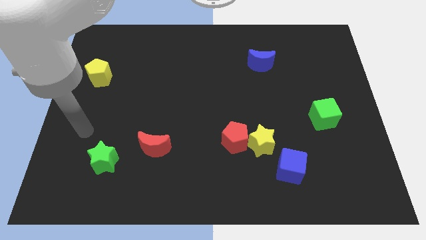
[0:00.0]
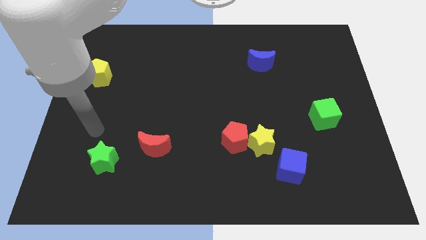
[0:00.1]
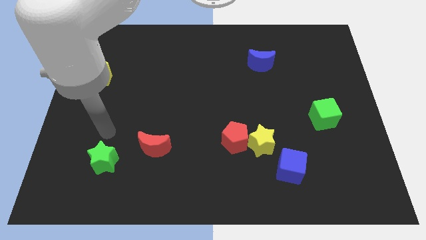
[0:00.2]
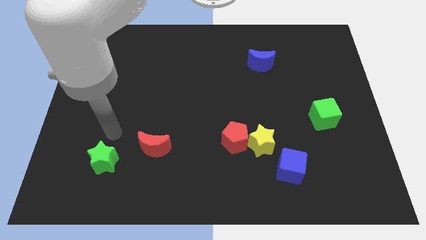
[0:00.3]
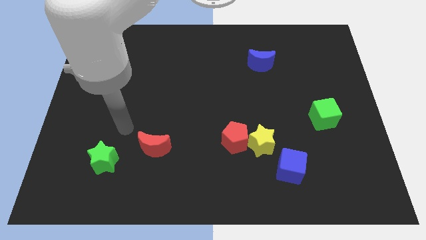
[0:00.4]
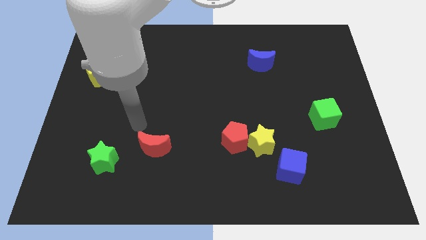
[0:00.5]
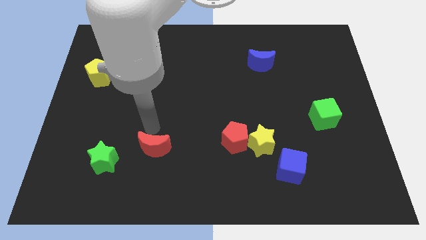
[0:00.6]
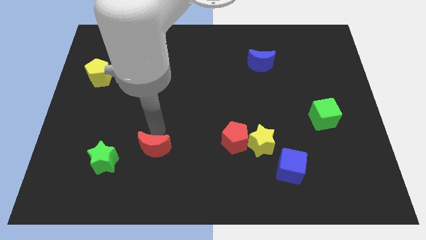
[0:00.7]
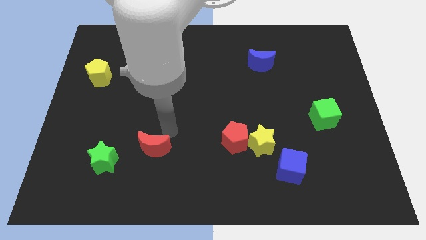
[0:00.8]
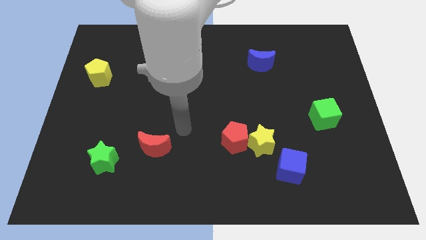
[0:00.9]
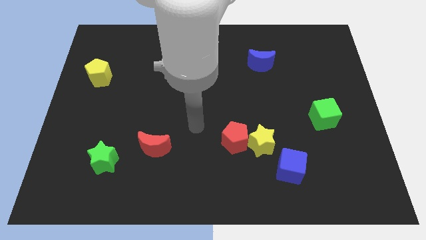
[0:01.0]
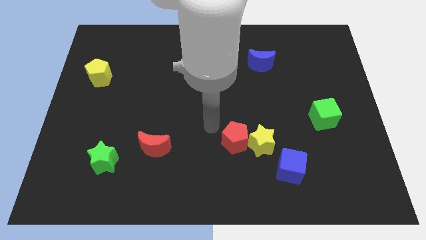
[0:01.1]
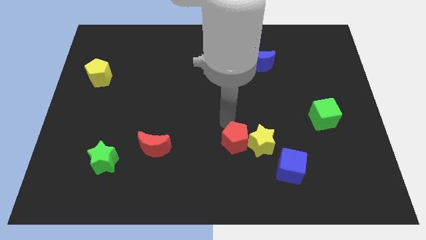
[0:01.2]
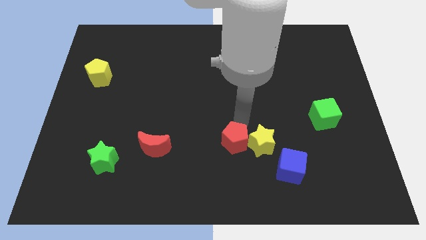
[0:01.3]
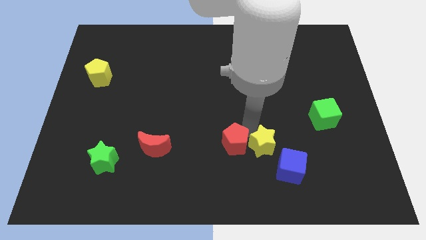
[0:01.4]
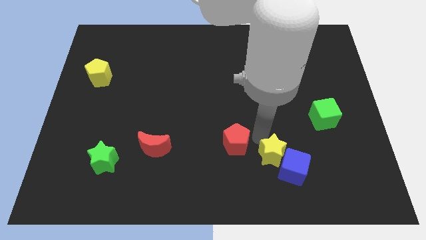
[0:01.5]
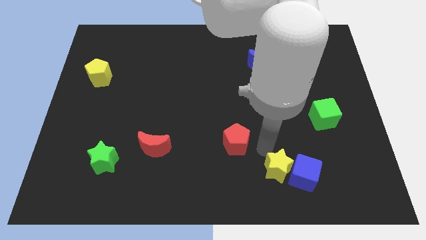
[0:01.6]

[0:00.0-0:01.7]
move the red pentagon away from the yellow star

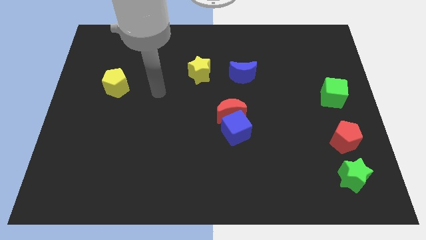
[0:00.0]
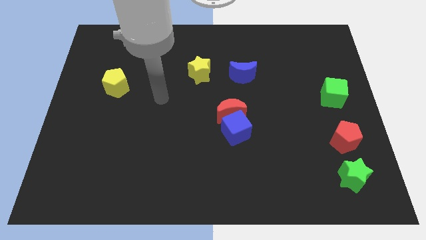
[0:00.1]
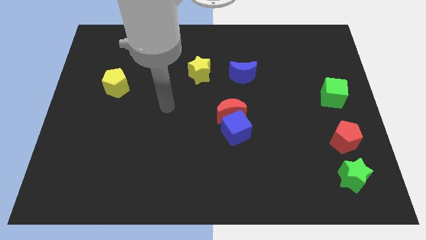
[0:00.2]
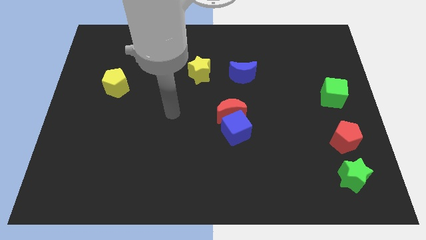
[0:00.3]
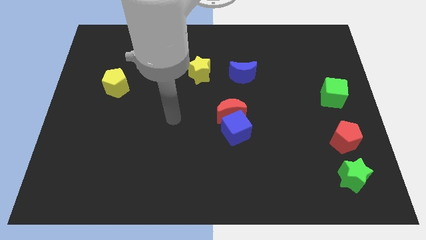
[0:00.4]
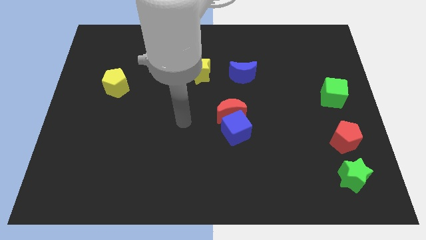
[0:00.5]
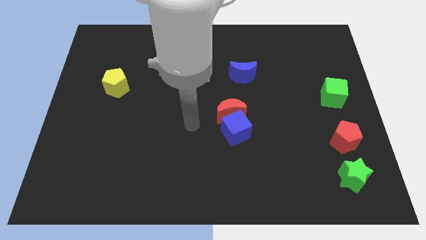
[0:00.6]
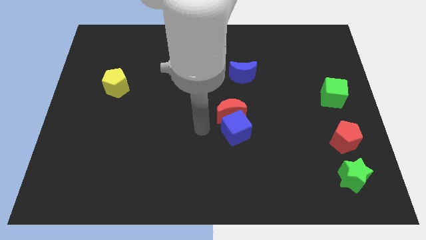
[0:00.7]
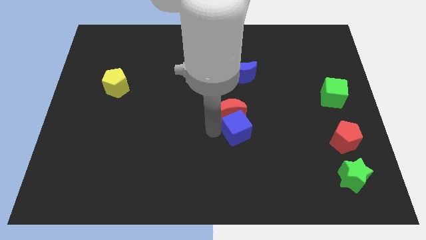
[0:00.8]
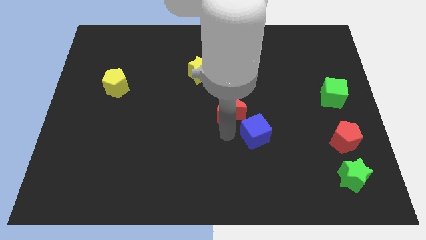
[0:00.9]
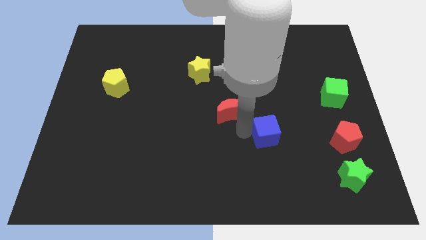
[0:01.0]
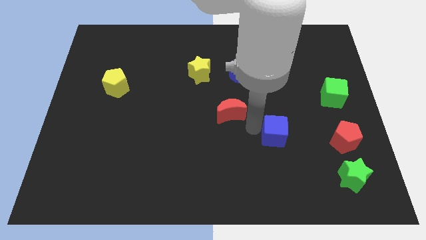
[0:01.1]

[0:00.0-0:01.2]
move the red moon away from the blue cube

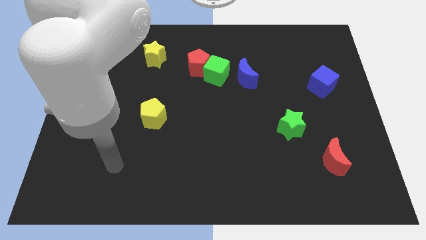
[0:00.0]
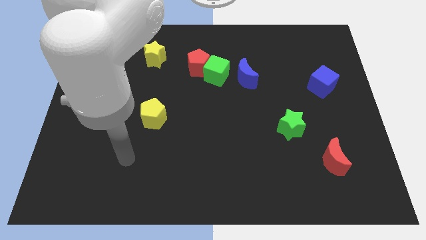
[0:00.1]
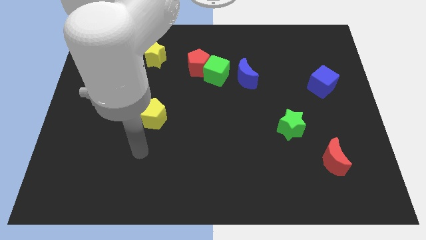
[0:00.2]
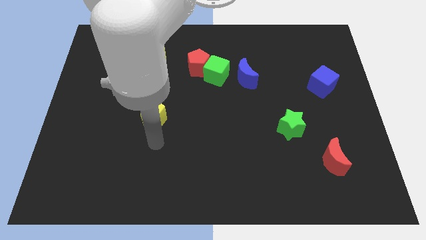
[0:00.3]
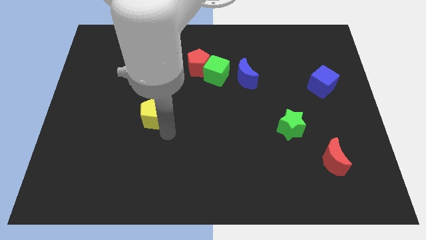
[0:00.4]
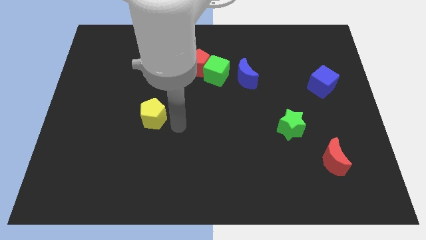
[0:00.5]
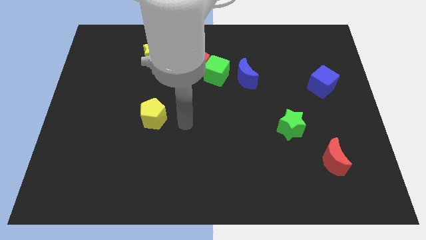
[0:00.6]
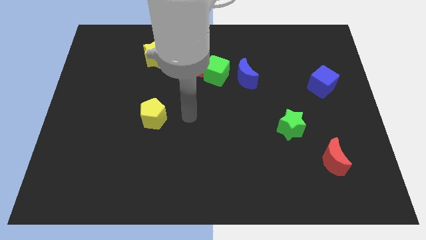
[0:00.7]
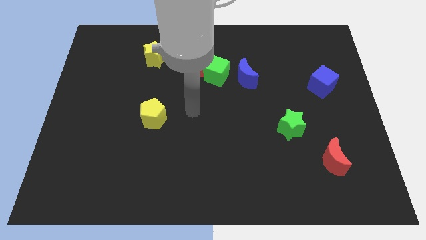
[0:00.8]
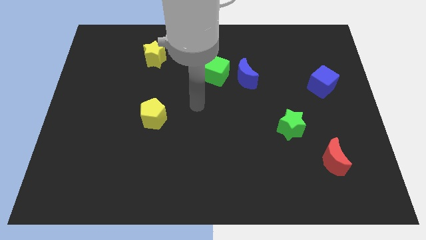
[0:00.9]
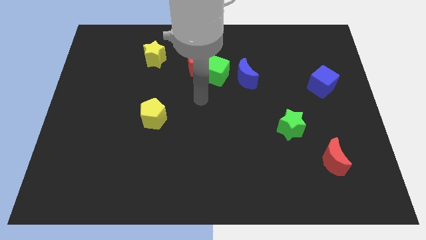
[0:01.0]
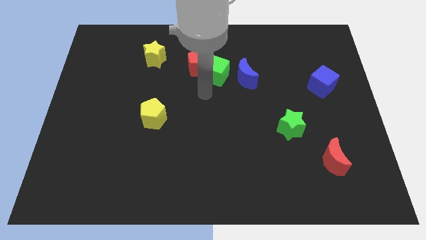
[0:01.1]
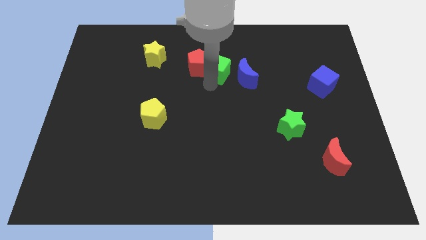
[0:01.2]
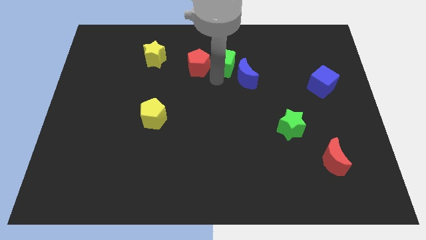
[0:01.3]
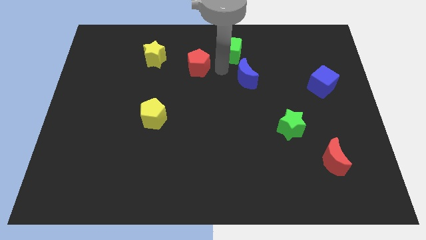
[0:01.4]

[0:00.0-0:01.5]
move the red pentagon away from the green cube

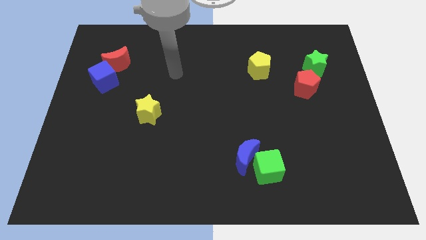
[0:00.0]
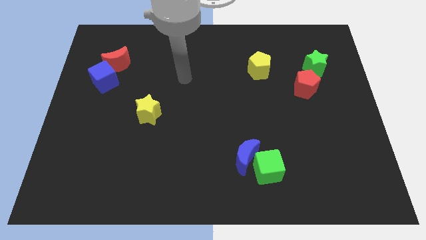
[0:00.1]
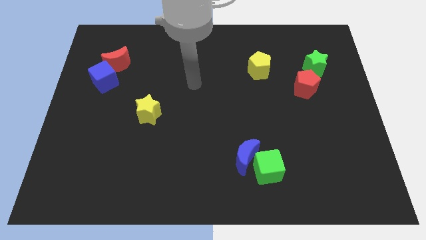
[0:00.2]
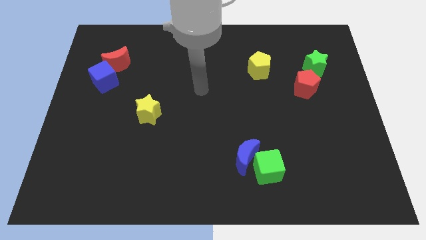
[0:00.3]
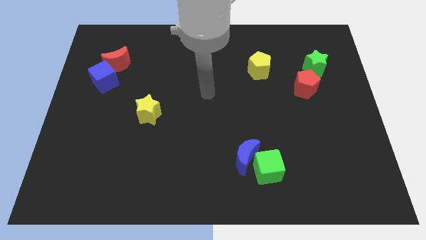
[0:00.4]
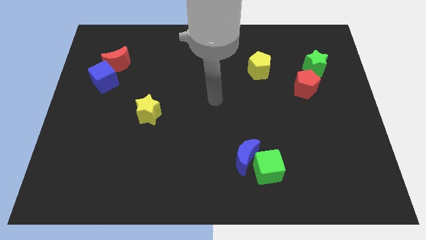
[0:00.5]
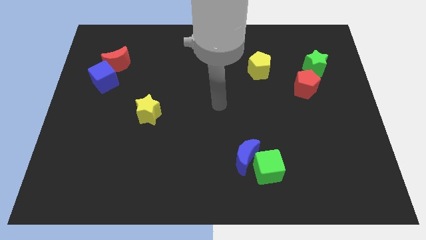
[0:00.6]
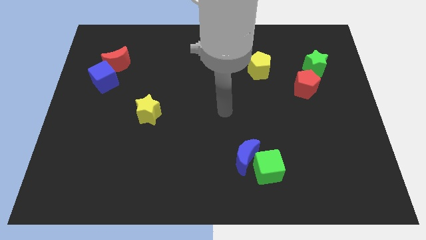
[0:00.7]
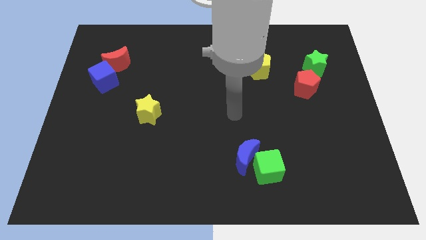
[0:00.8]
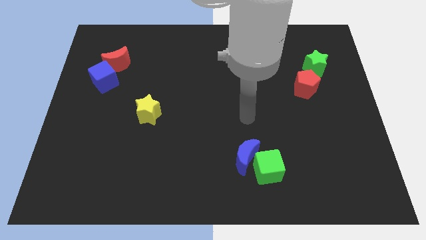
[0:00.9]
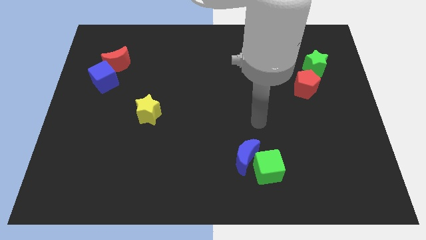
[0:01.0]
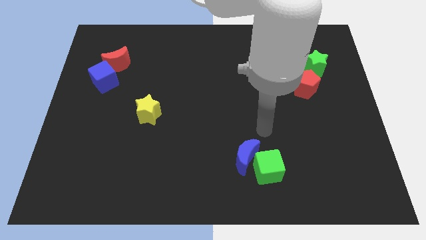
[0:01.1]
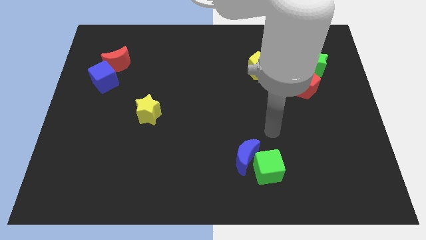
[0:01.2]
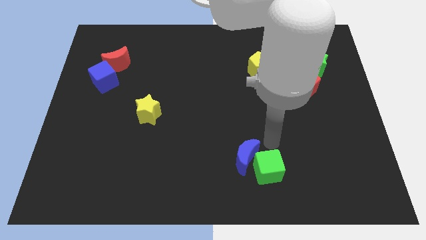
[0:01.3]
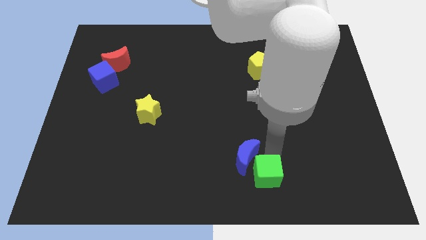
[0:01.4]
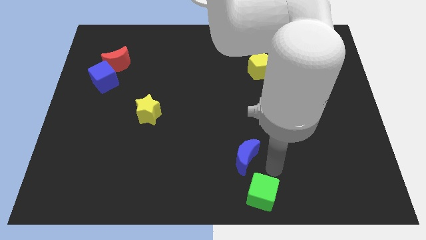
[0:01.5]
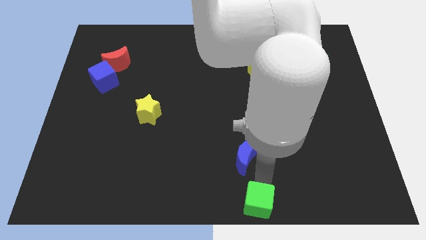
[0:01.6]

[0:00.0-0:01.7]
move the blue moon away from the green cube

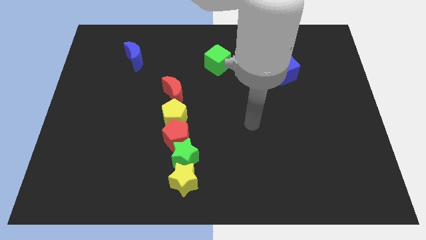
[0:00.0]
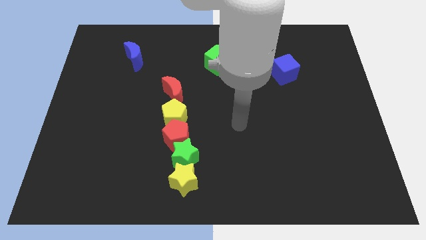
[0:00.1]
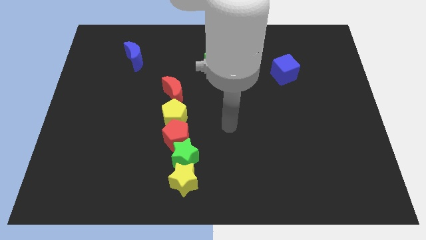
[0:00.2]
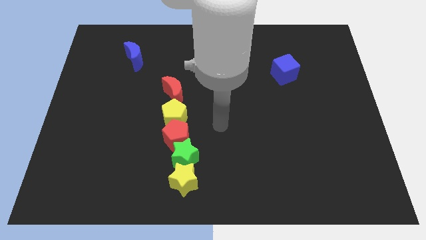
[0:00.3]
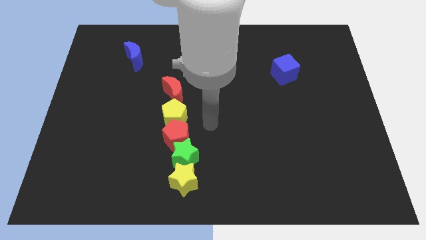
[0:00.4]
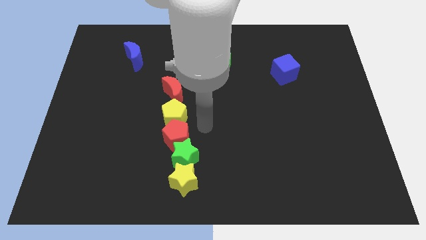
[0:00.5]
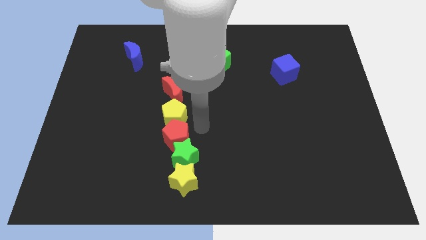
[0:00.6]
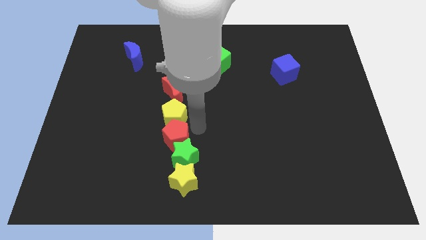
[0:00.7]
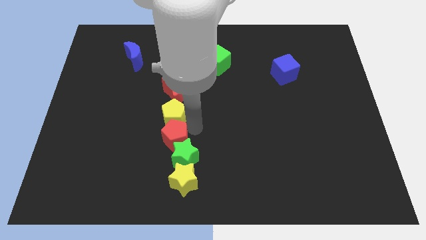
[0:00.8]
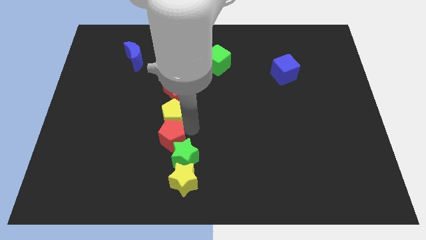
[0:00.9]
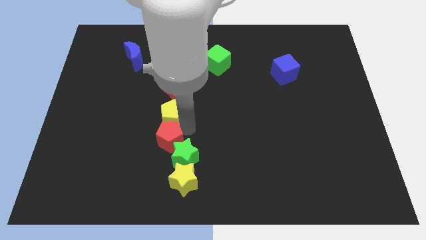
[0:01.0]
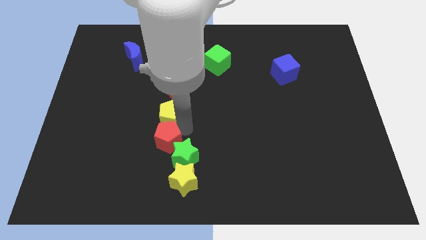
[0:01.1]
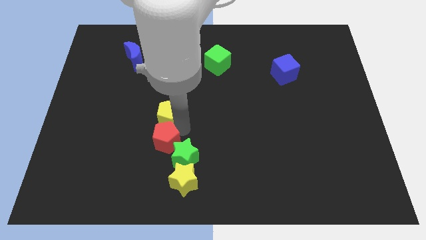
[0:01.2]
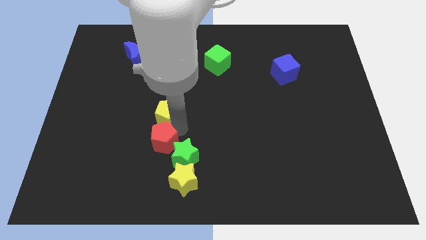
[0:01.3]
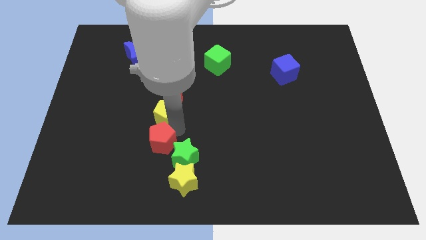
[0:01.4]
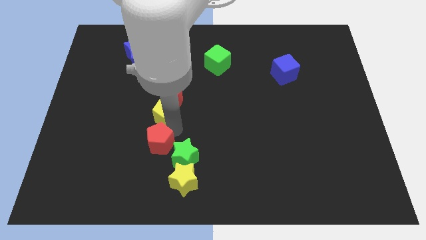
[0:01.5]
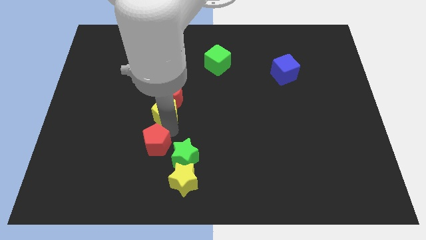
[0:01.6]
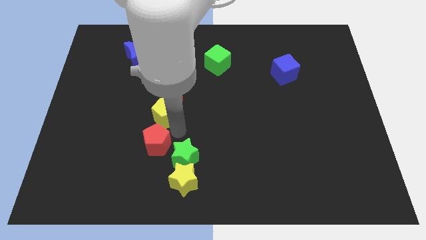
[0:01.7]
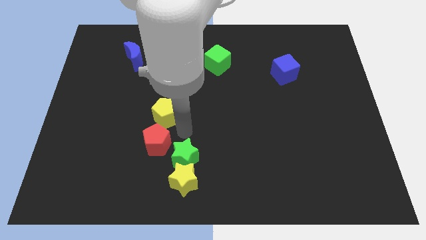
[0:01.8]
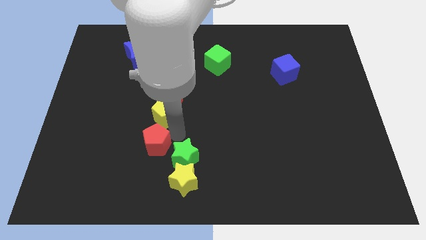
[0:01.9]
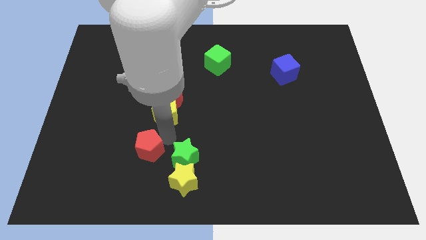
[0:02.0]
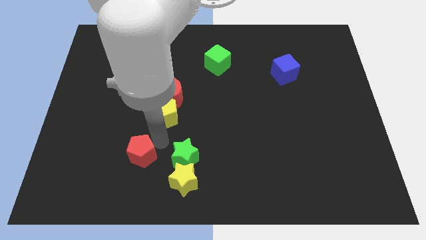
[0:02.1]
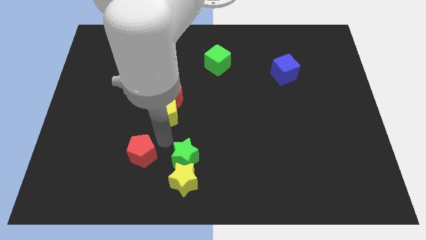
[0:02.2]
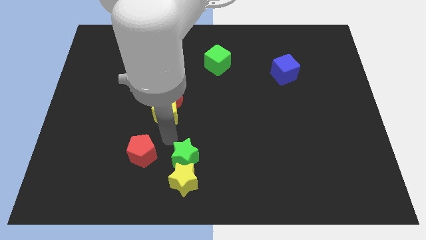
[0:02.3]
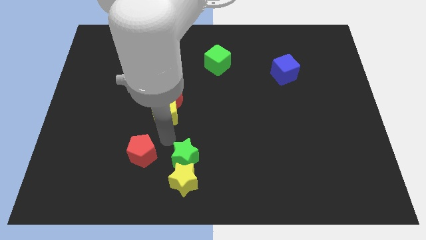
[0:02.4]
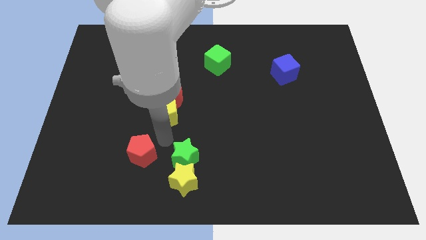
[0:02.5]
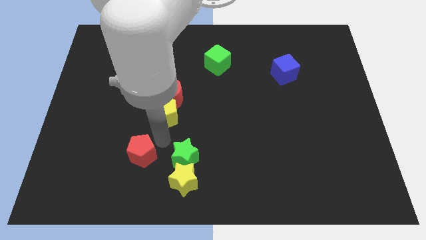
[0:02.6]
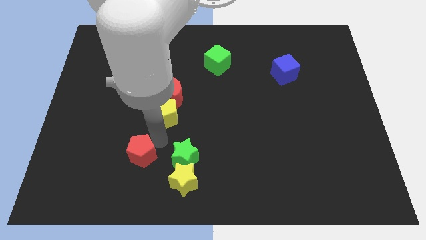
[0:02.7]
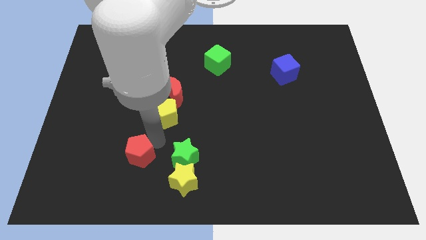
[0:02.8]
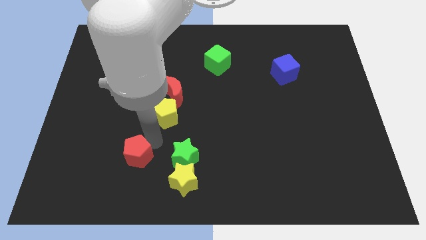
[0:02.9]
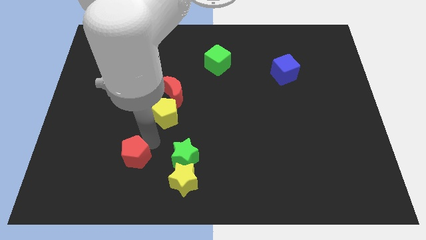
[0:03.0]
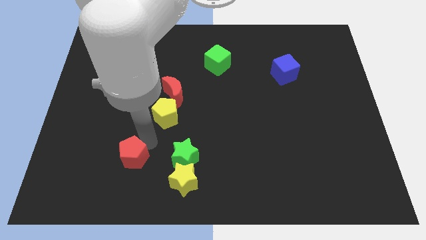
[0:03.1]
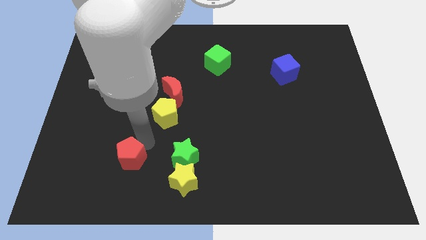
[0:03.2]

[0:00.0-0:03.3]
move the red pentagon away from the green star and yellow pentagon
